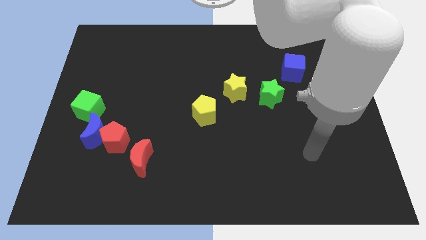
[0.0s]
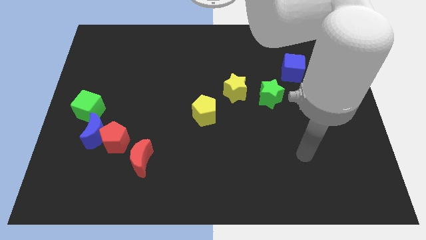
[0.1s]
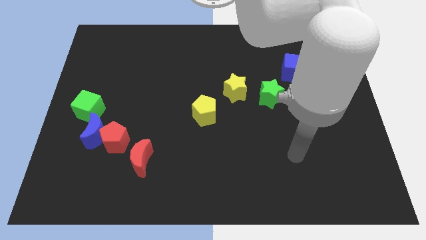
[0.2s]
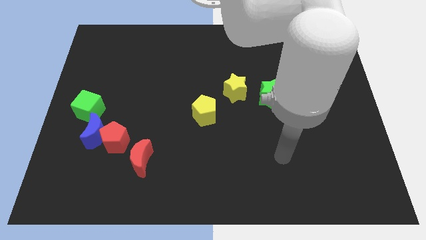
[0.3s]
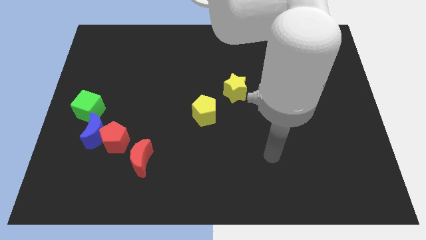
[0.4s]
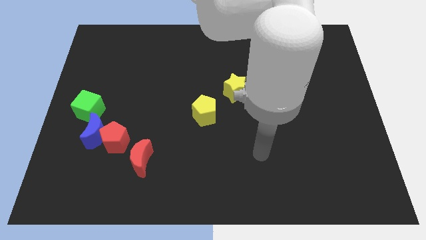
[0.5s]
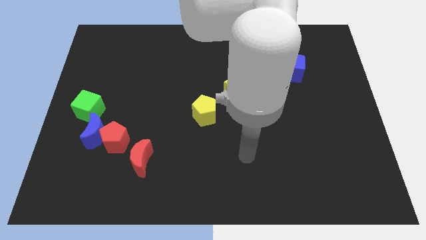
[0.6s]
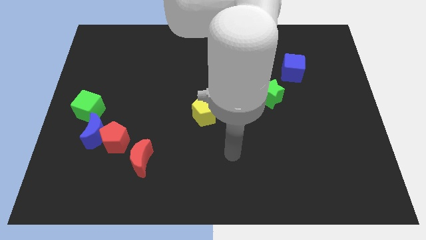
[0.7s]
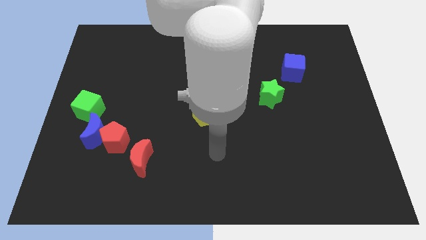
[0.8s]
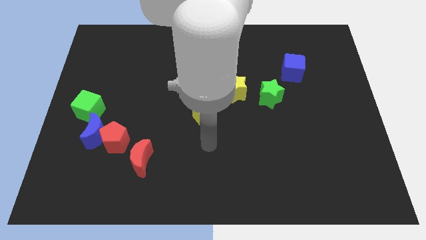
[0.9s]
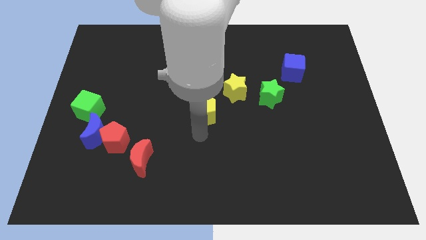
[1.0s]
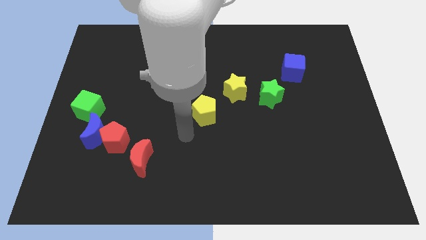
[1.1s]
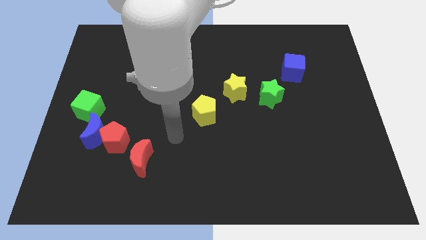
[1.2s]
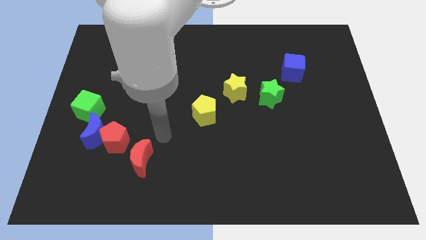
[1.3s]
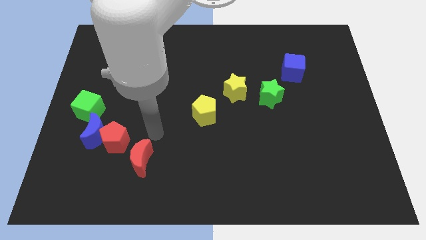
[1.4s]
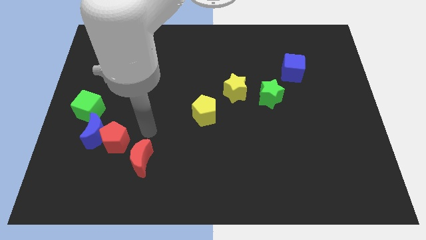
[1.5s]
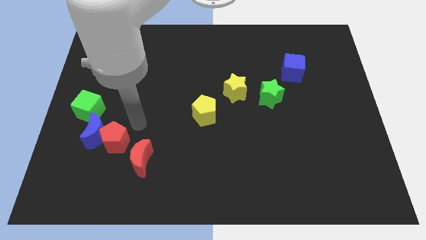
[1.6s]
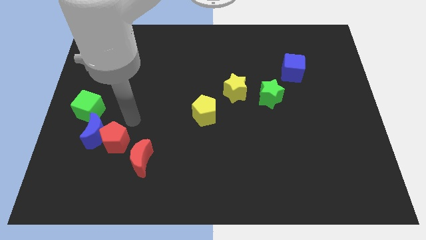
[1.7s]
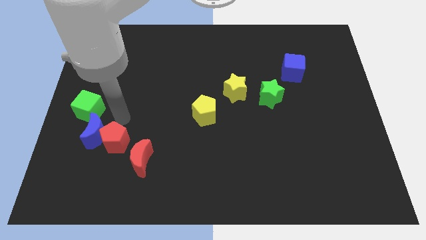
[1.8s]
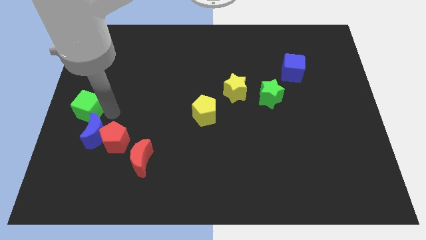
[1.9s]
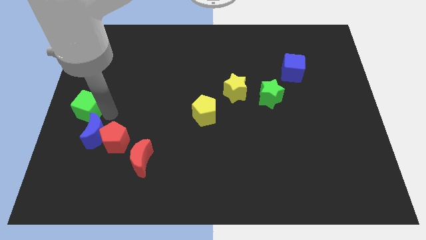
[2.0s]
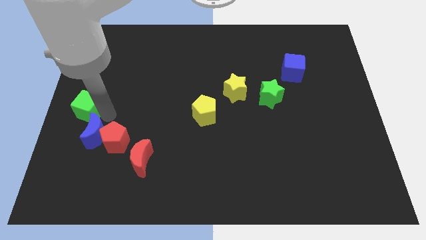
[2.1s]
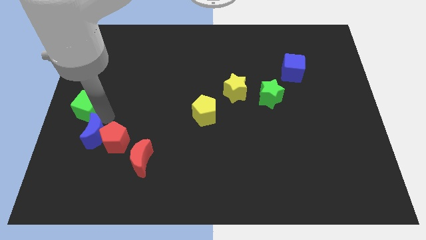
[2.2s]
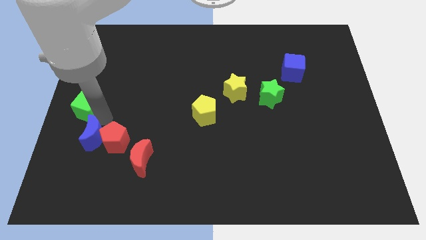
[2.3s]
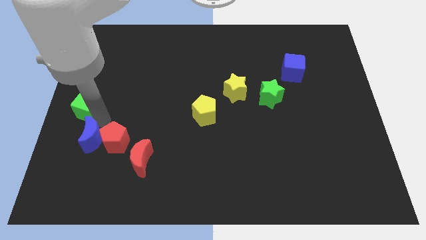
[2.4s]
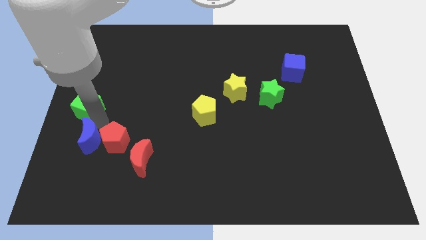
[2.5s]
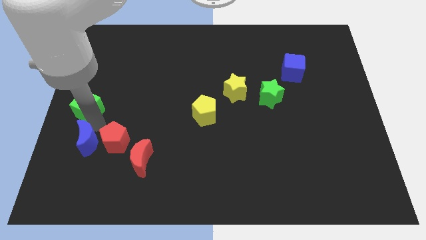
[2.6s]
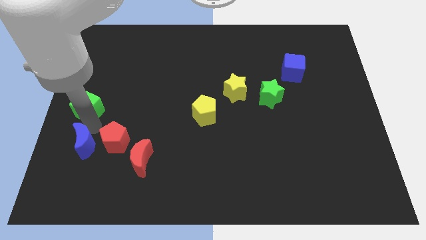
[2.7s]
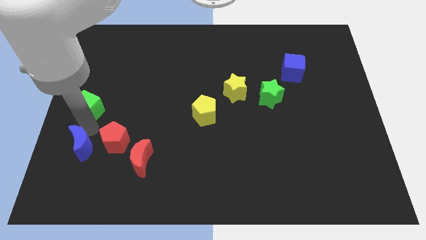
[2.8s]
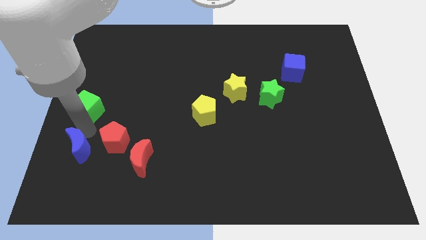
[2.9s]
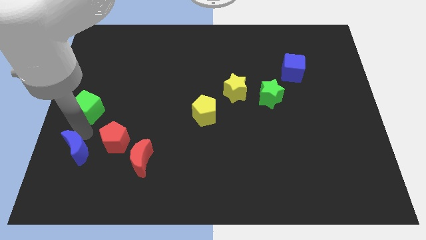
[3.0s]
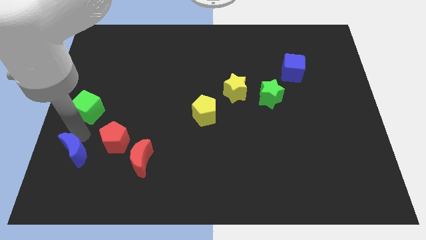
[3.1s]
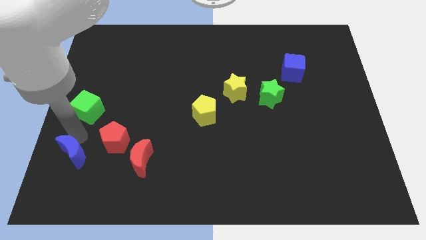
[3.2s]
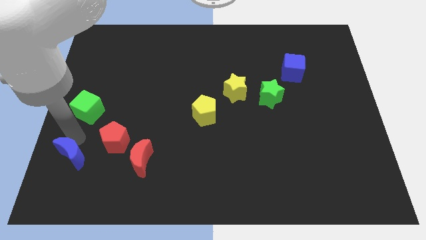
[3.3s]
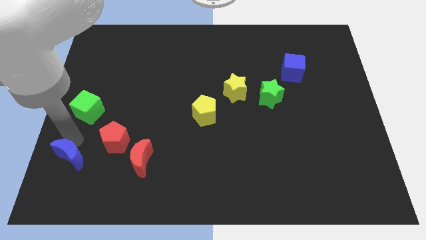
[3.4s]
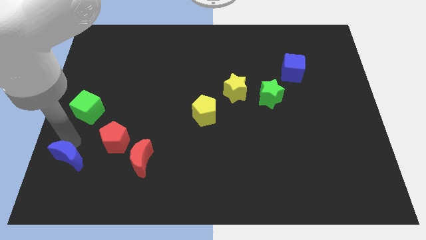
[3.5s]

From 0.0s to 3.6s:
move the blue moon away from the red pentagon and green cube

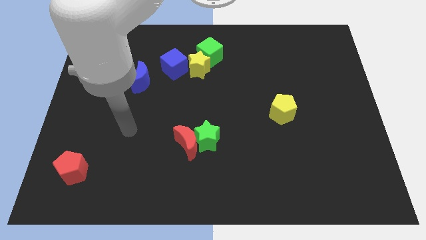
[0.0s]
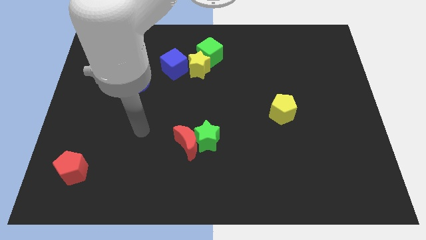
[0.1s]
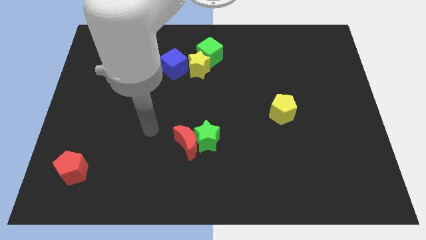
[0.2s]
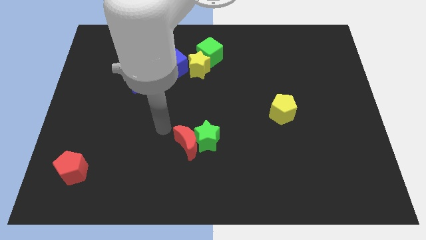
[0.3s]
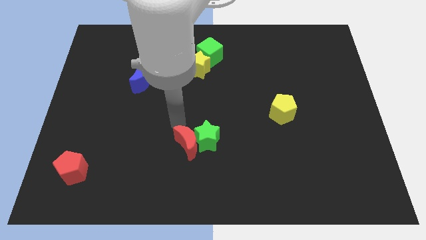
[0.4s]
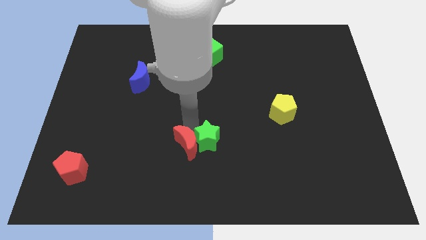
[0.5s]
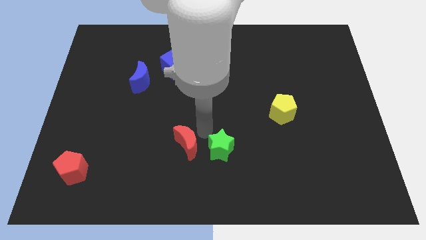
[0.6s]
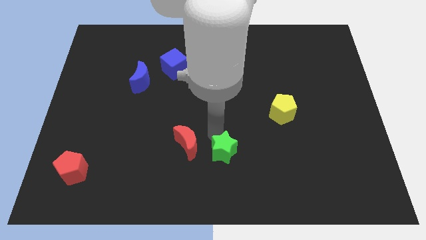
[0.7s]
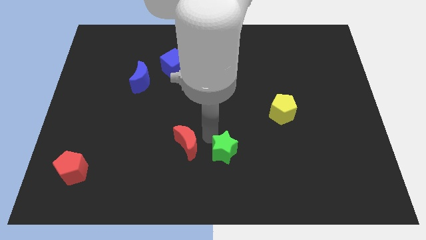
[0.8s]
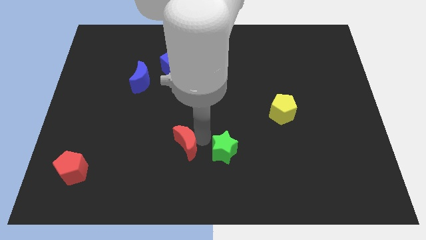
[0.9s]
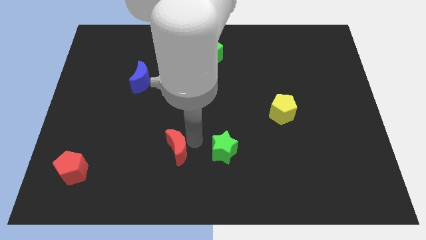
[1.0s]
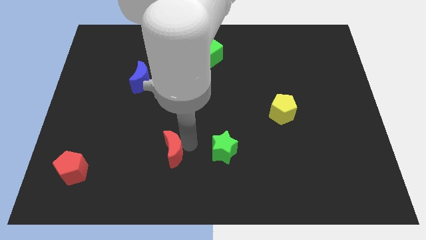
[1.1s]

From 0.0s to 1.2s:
pull the red moon apart from the green star

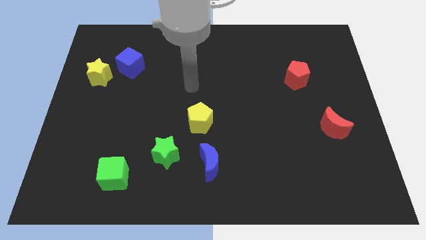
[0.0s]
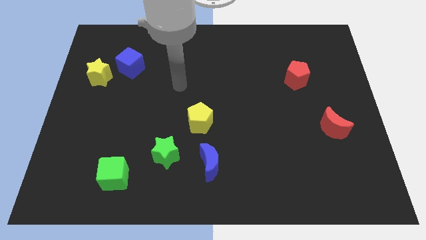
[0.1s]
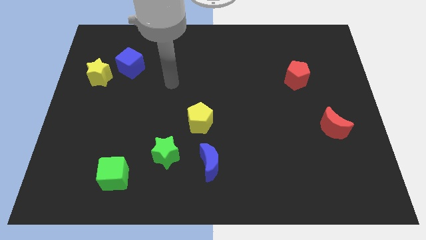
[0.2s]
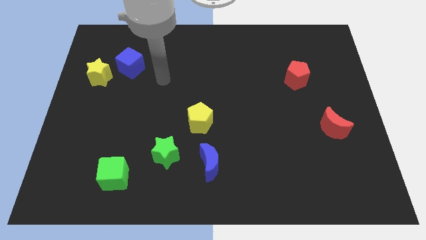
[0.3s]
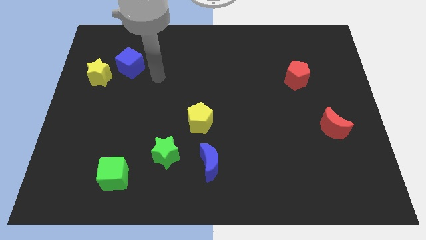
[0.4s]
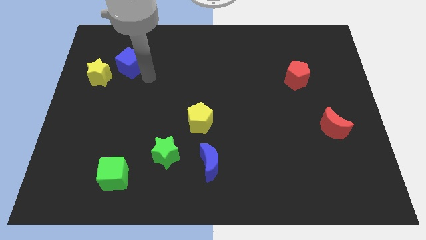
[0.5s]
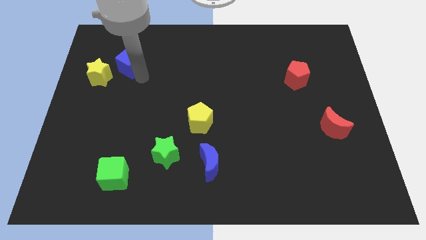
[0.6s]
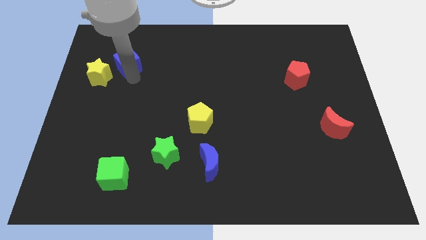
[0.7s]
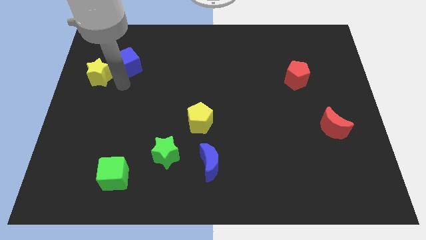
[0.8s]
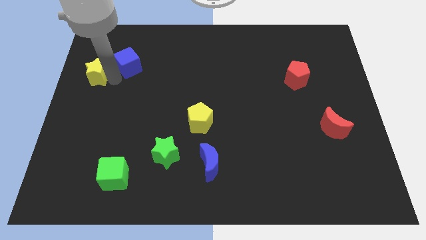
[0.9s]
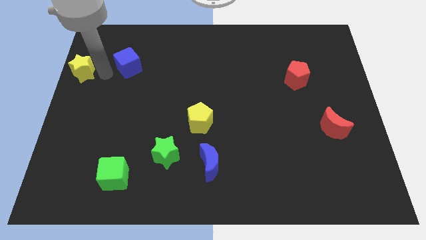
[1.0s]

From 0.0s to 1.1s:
separate the blue cube from the yellow star

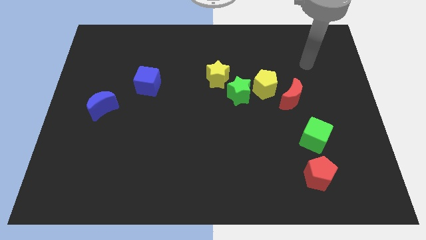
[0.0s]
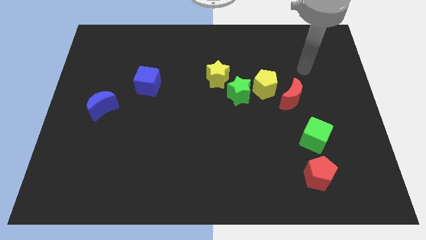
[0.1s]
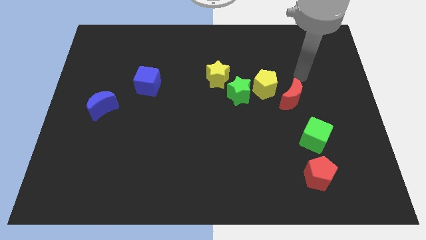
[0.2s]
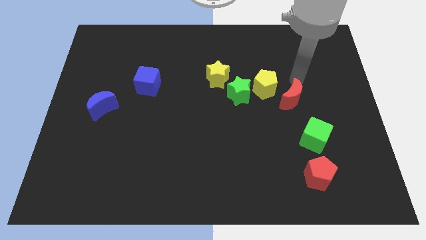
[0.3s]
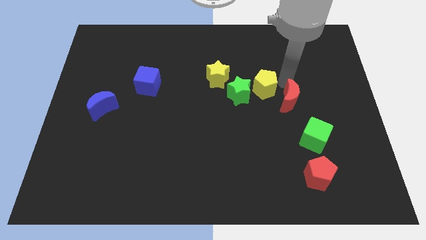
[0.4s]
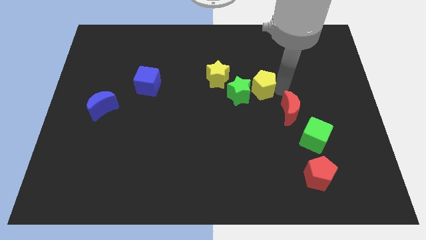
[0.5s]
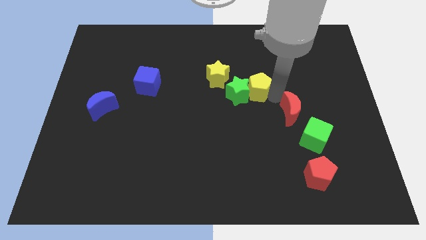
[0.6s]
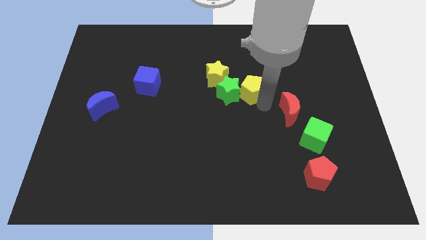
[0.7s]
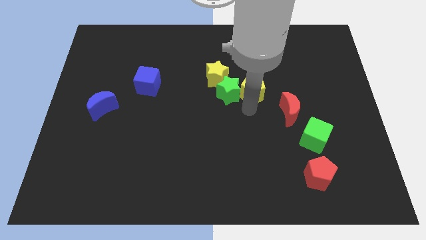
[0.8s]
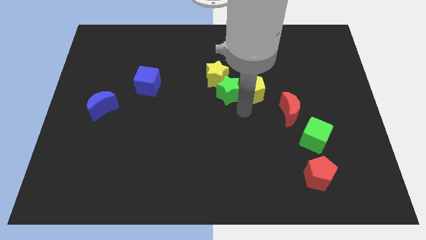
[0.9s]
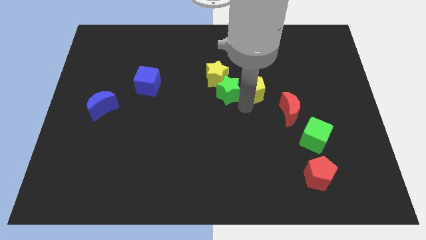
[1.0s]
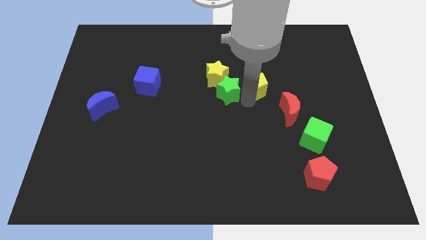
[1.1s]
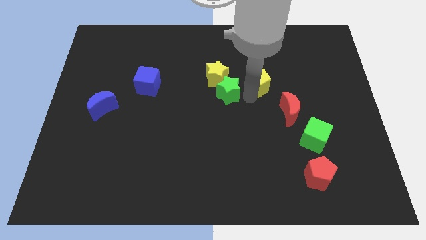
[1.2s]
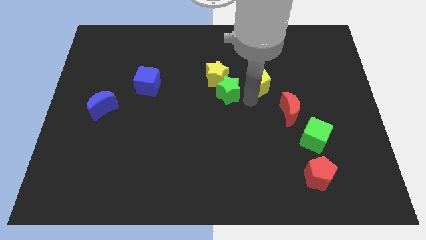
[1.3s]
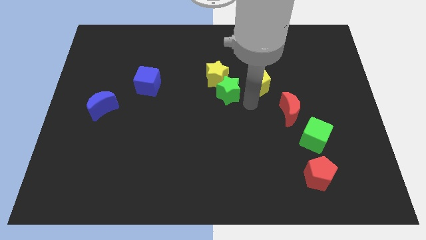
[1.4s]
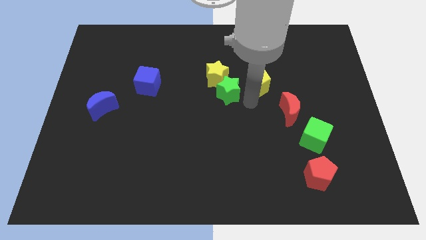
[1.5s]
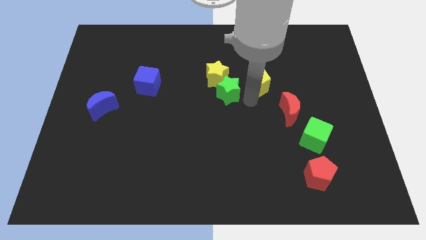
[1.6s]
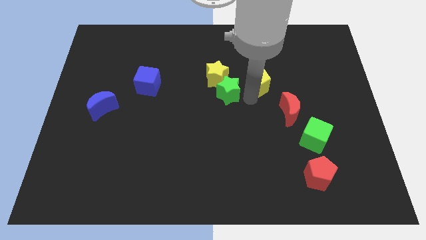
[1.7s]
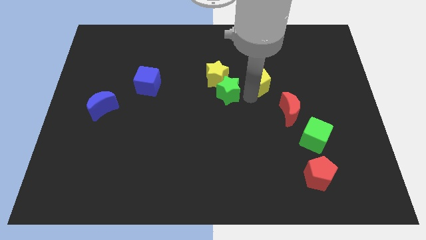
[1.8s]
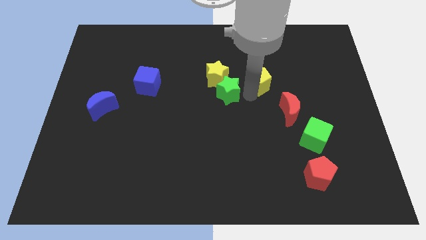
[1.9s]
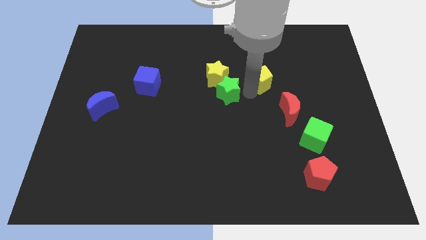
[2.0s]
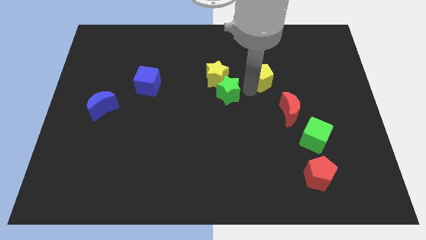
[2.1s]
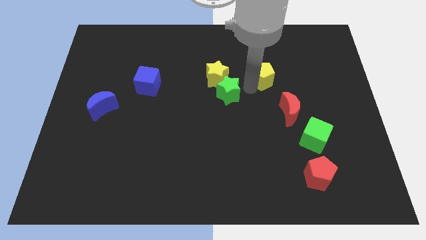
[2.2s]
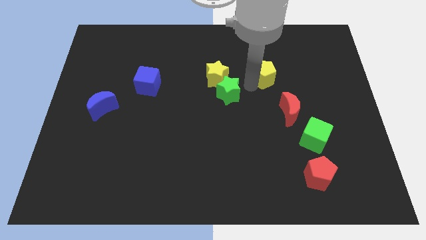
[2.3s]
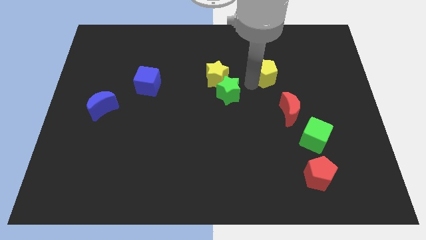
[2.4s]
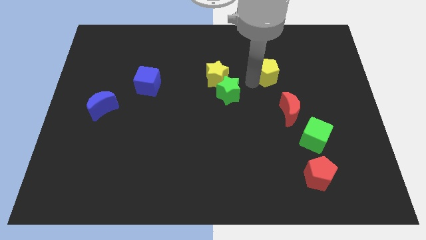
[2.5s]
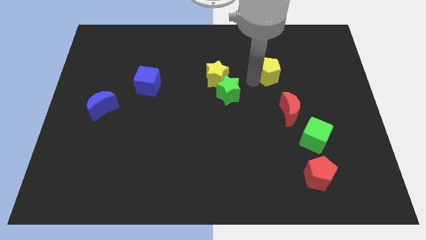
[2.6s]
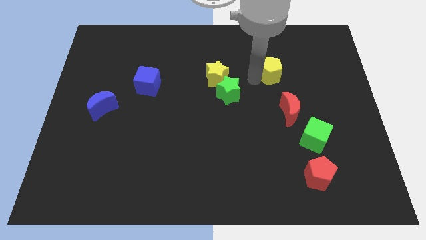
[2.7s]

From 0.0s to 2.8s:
pull the yellow pentagon apart from the green star and red moon

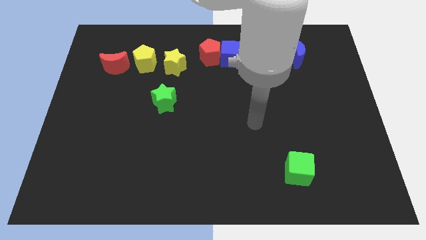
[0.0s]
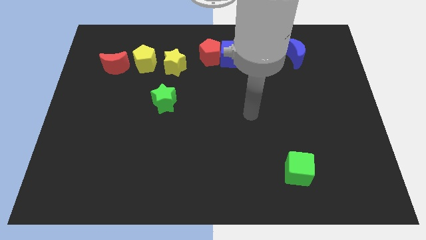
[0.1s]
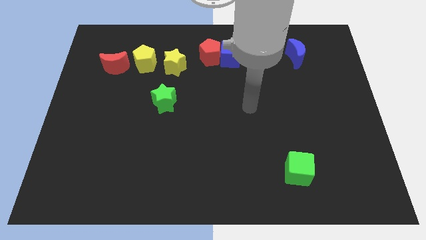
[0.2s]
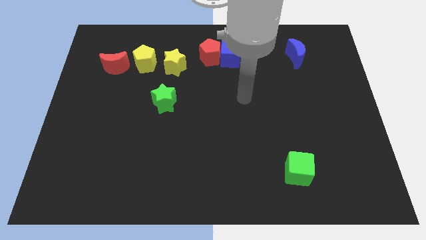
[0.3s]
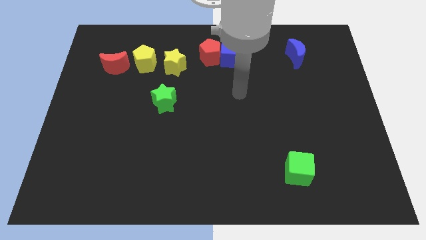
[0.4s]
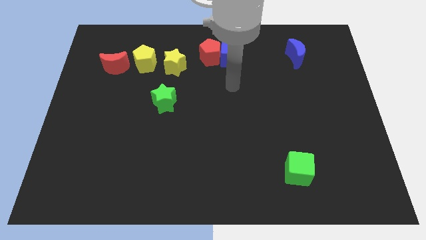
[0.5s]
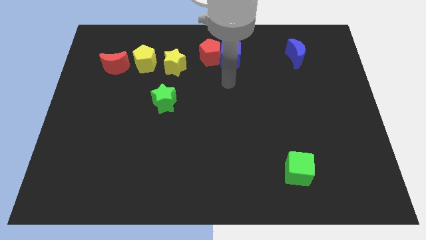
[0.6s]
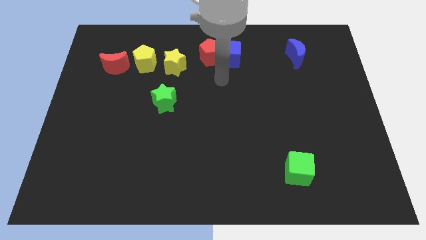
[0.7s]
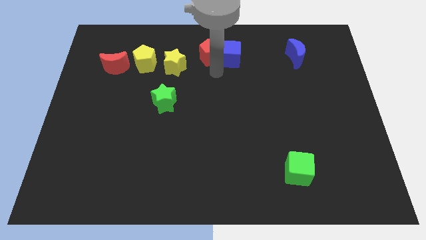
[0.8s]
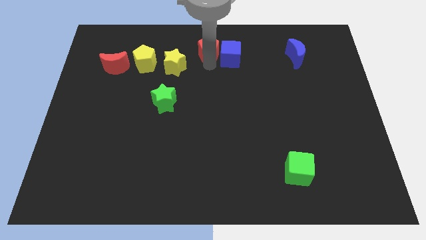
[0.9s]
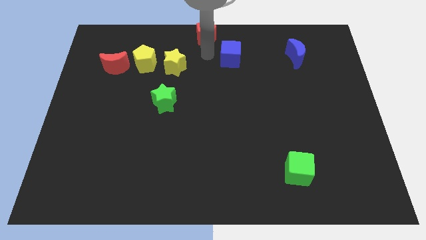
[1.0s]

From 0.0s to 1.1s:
move the blue cube away from the red pentagon
